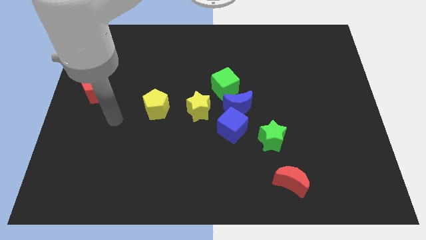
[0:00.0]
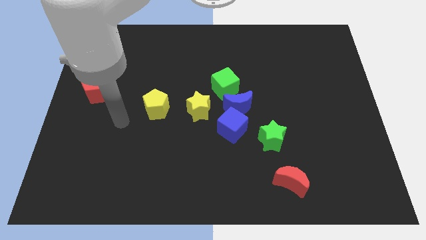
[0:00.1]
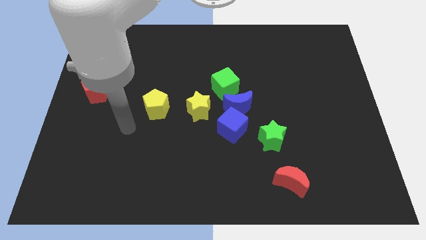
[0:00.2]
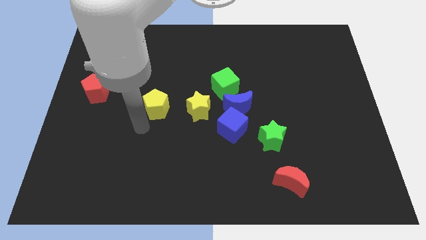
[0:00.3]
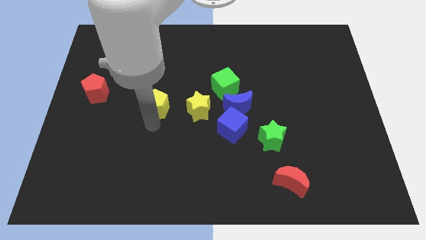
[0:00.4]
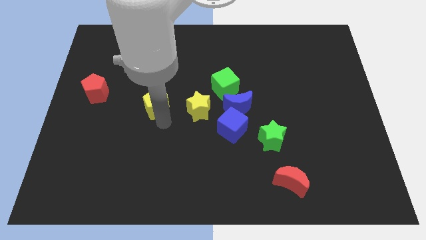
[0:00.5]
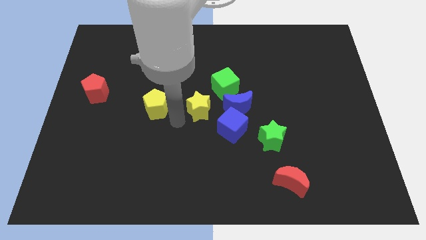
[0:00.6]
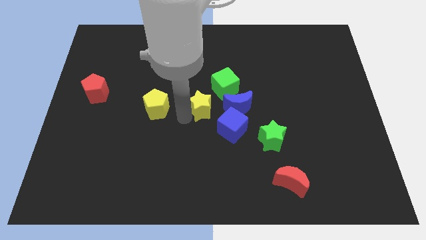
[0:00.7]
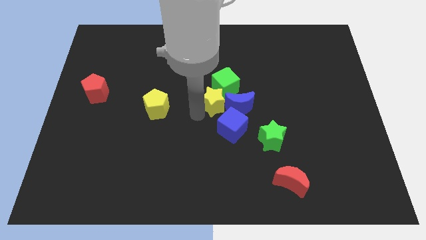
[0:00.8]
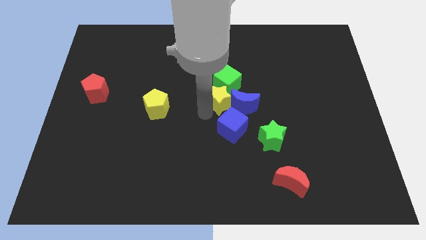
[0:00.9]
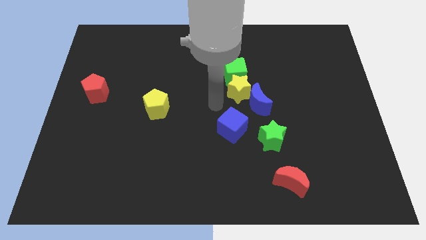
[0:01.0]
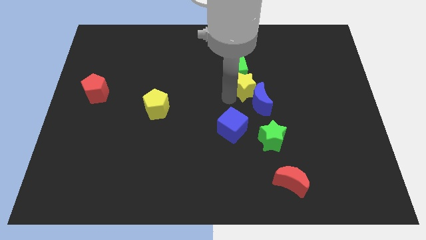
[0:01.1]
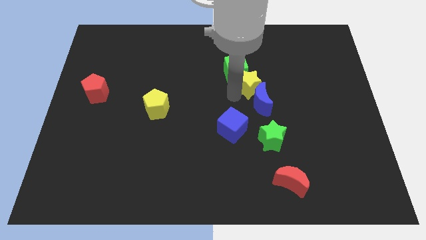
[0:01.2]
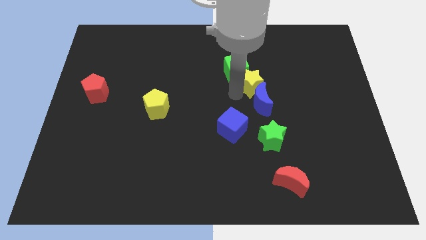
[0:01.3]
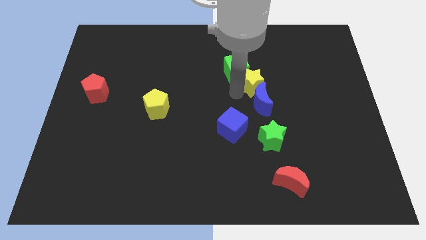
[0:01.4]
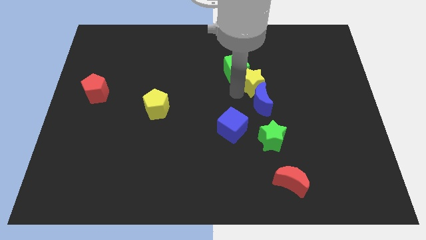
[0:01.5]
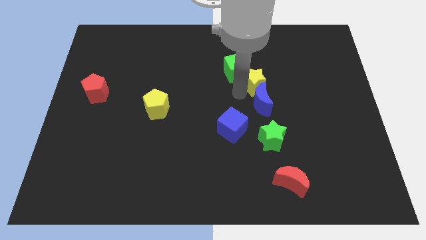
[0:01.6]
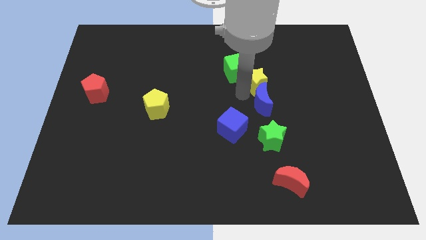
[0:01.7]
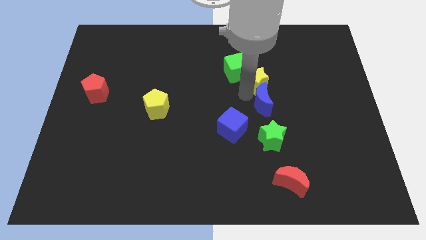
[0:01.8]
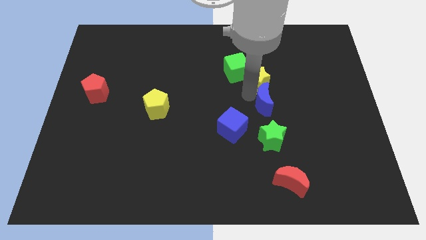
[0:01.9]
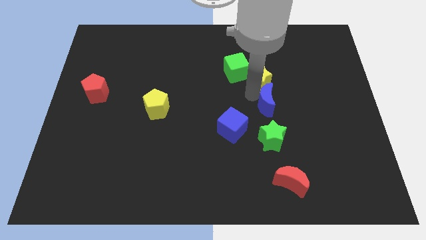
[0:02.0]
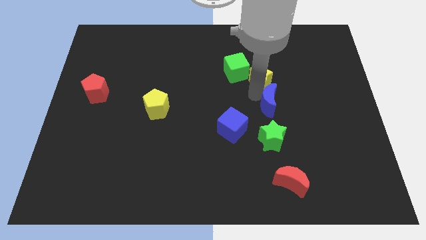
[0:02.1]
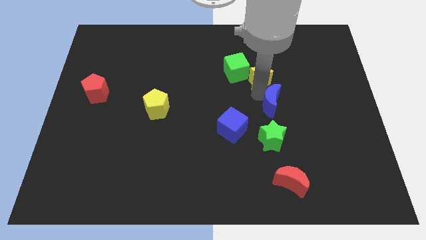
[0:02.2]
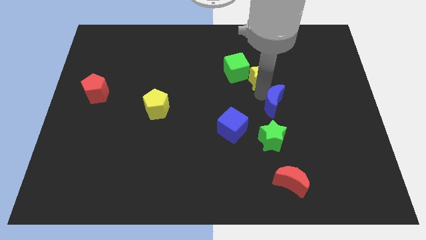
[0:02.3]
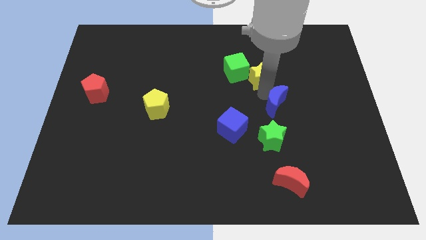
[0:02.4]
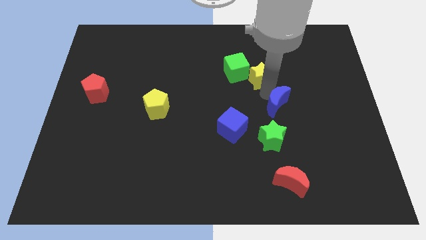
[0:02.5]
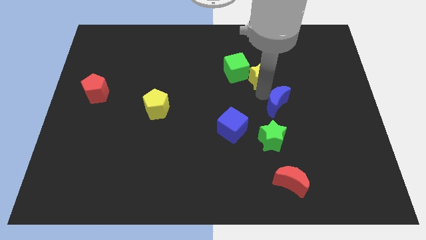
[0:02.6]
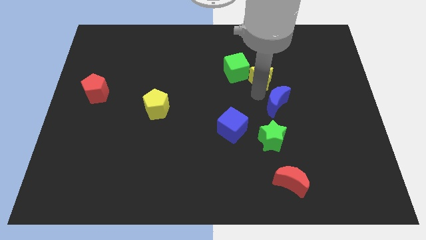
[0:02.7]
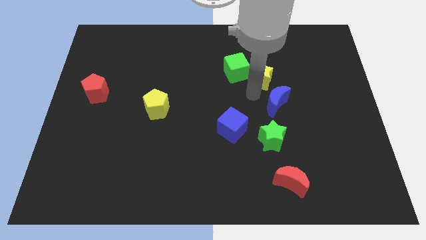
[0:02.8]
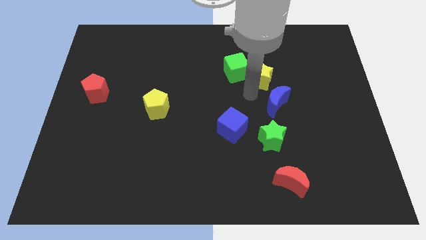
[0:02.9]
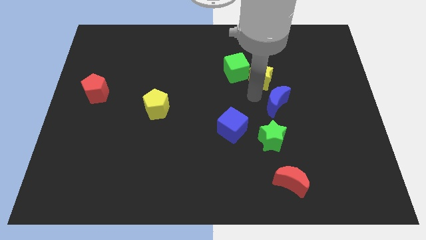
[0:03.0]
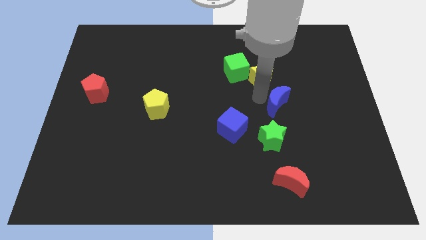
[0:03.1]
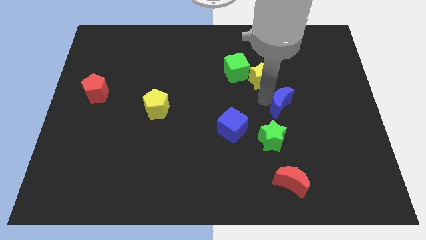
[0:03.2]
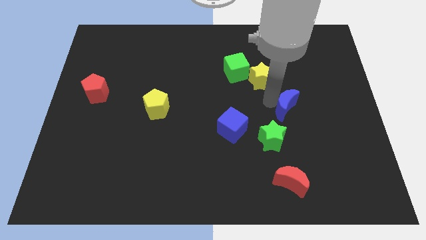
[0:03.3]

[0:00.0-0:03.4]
separate the blue moon from the group

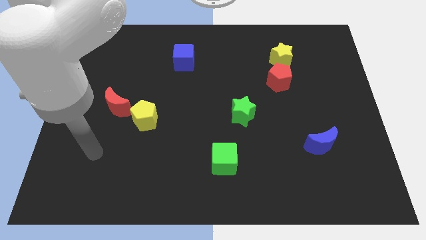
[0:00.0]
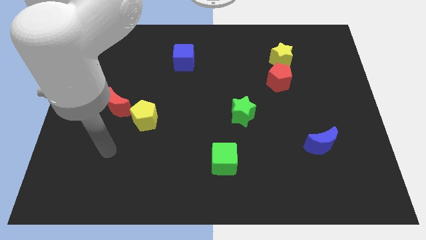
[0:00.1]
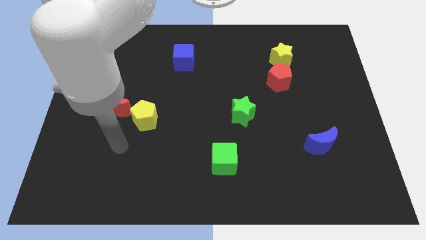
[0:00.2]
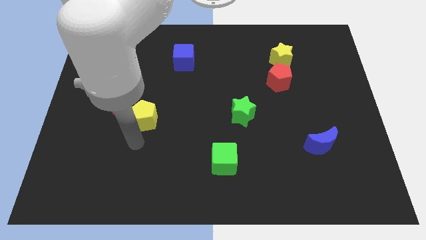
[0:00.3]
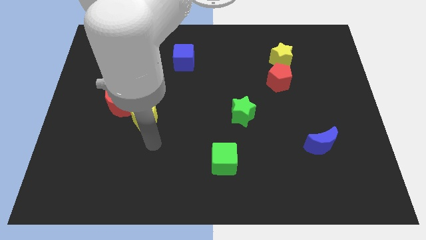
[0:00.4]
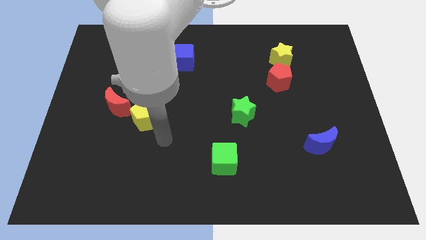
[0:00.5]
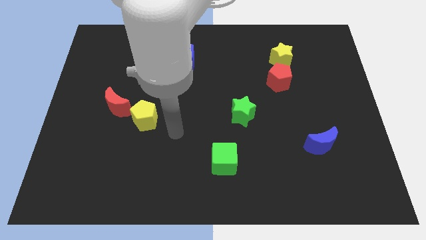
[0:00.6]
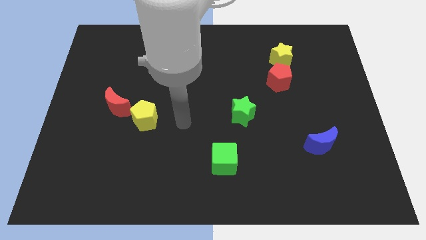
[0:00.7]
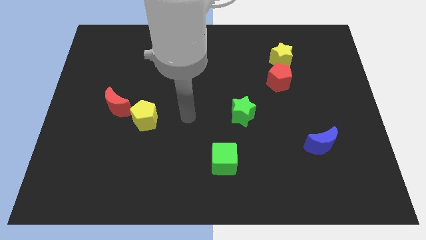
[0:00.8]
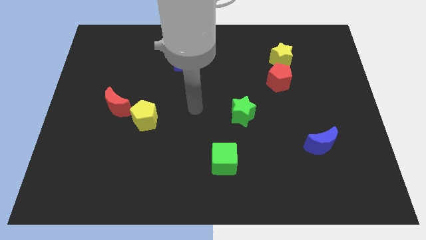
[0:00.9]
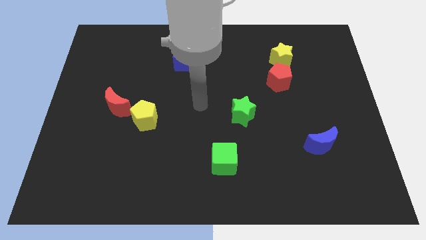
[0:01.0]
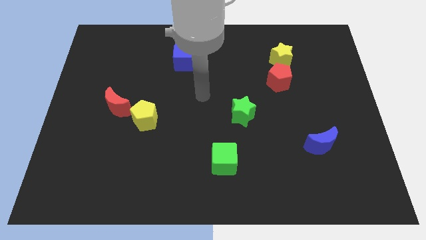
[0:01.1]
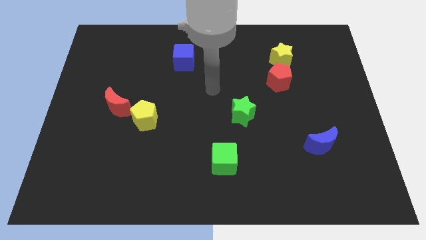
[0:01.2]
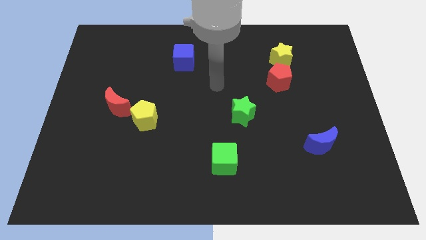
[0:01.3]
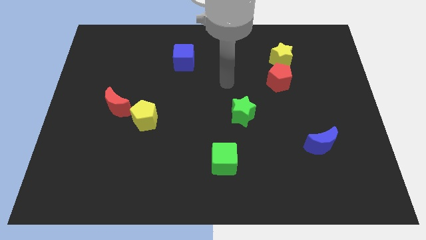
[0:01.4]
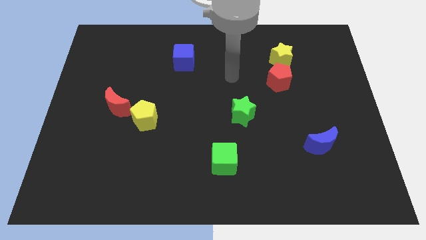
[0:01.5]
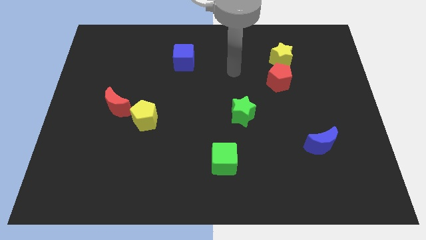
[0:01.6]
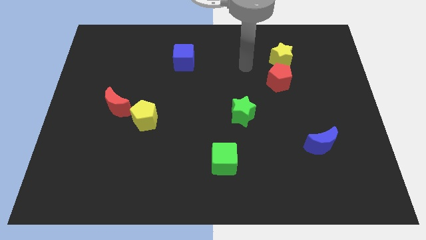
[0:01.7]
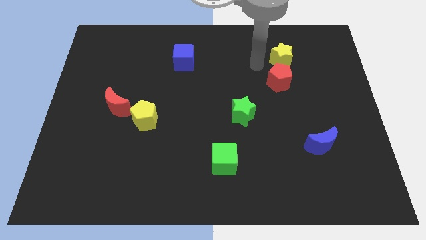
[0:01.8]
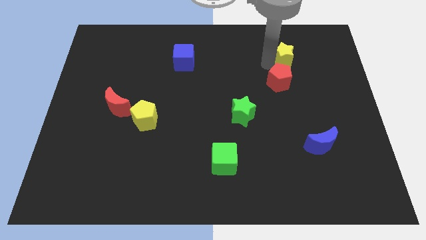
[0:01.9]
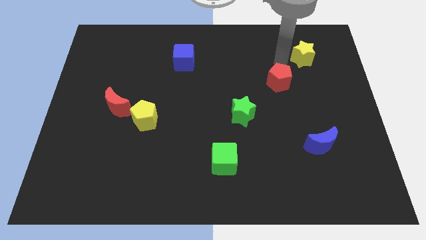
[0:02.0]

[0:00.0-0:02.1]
move the red pentagon away from the yellow star

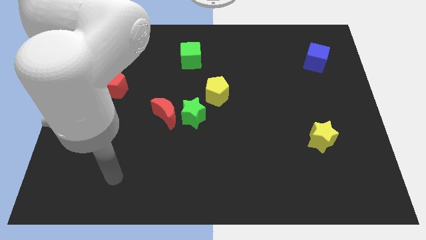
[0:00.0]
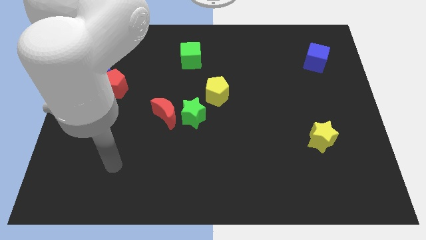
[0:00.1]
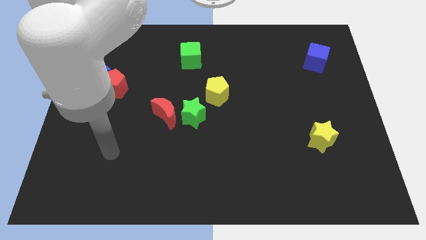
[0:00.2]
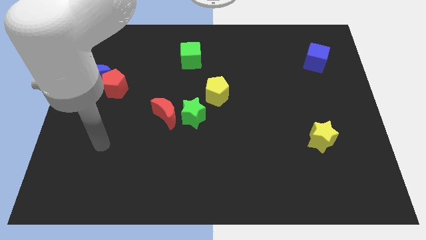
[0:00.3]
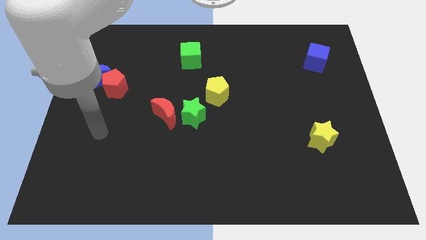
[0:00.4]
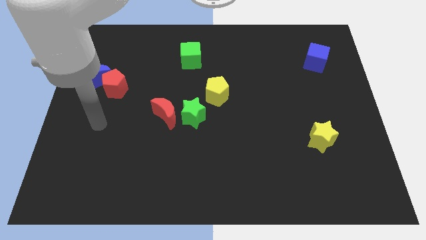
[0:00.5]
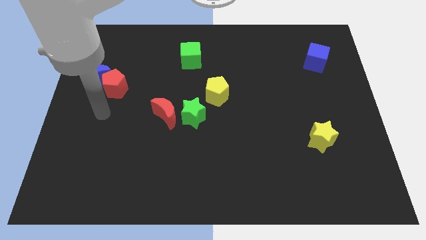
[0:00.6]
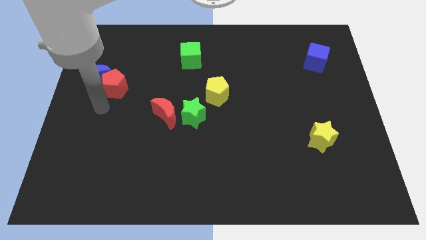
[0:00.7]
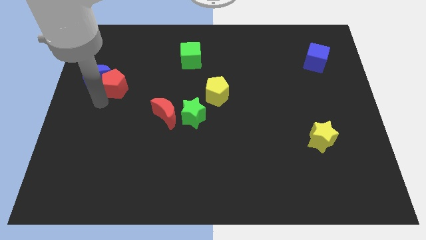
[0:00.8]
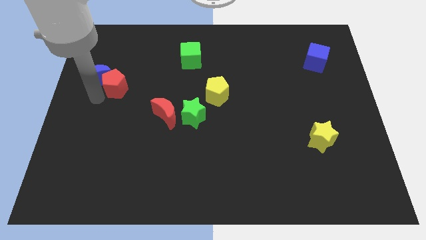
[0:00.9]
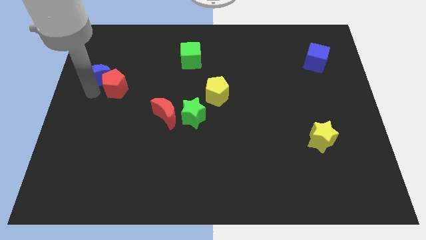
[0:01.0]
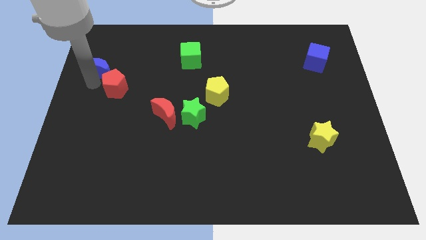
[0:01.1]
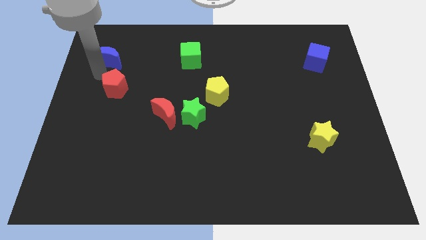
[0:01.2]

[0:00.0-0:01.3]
separate the red pentagon from the blue moon

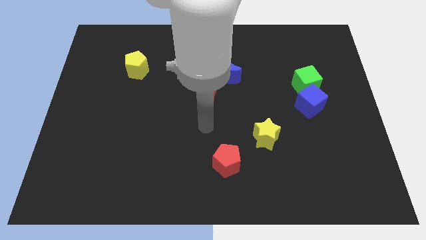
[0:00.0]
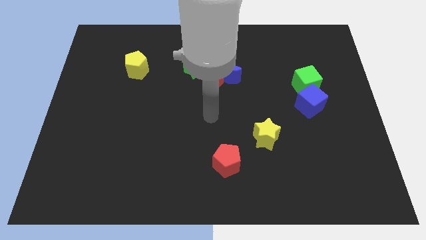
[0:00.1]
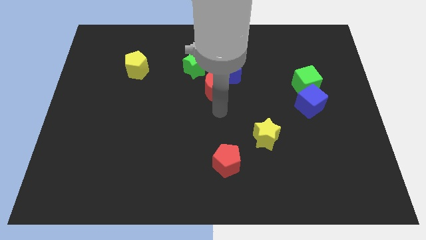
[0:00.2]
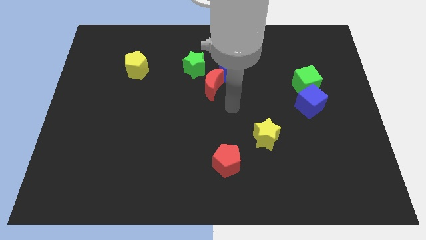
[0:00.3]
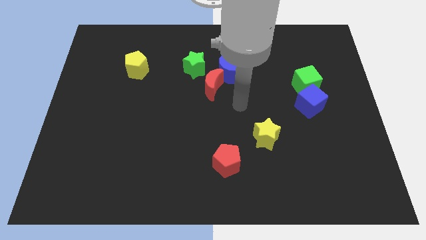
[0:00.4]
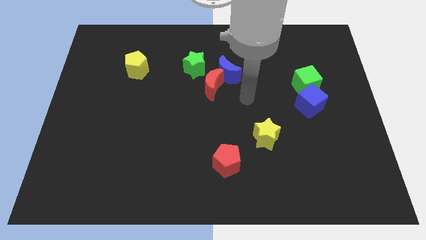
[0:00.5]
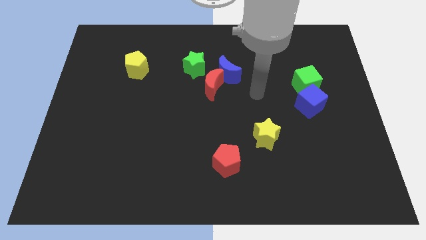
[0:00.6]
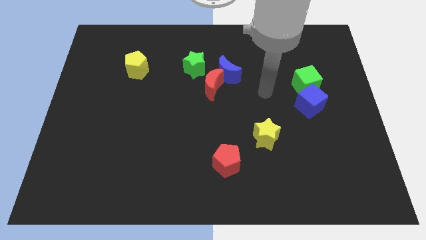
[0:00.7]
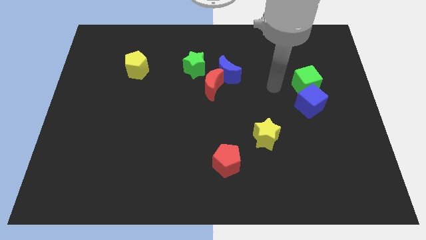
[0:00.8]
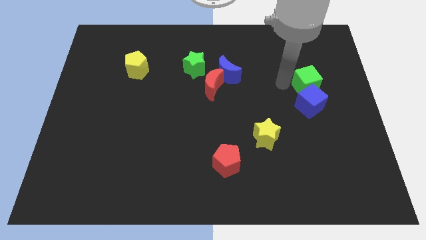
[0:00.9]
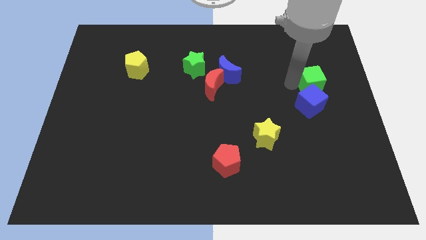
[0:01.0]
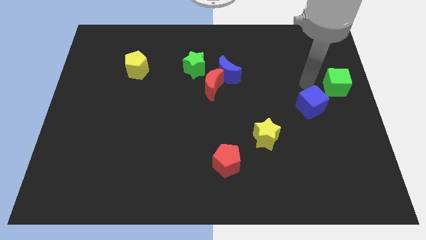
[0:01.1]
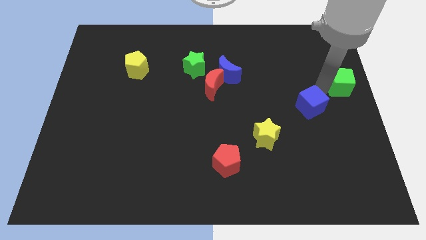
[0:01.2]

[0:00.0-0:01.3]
pull the blue cube apart from the green cube

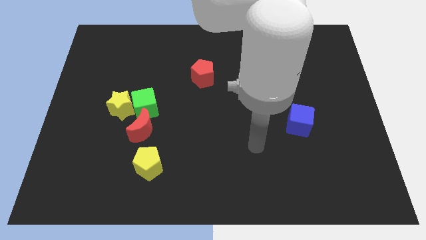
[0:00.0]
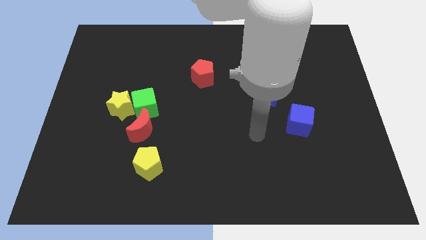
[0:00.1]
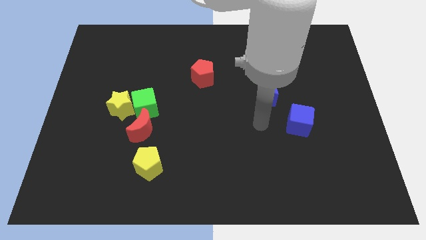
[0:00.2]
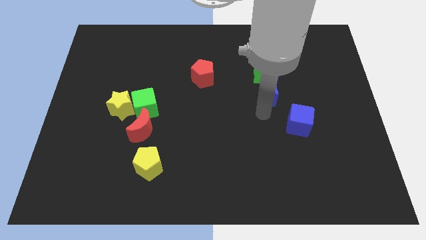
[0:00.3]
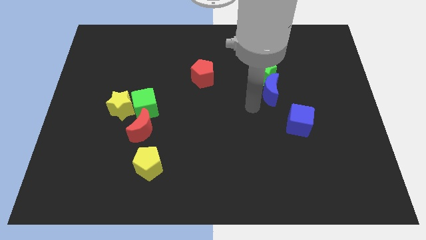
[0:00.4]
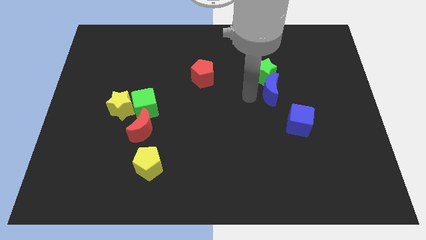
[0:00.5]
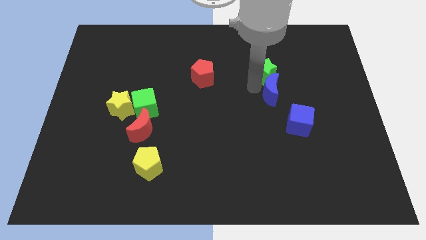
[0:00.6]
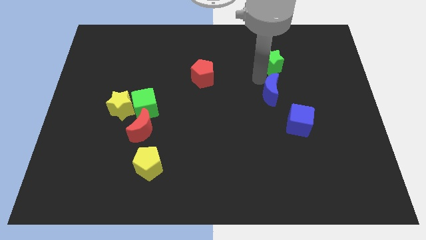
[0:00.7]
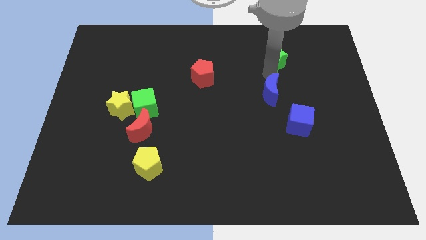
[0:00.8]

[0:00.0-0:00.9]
separate the blue moon from the green star

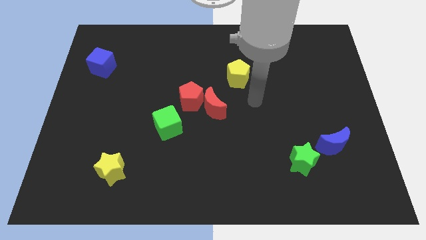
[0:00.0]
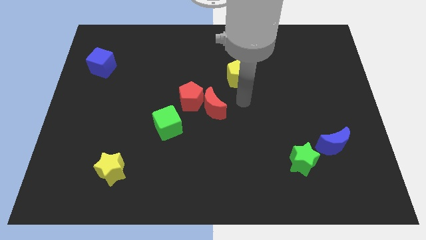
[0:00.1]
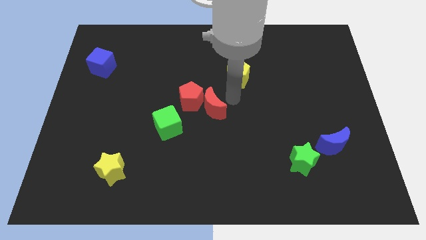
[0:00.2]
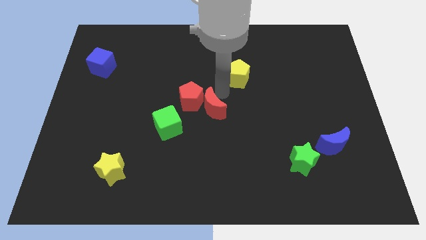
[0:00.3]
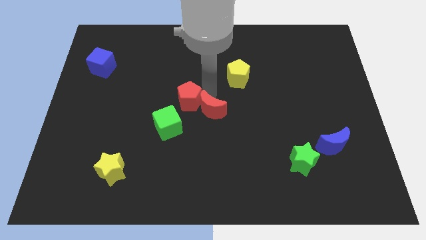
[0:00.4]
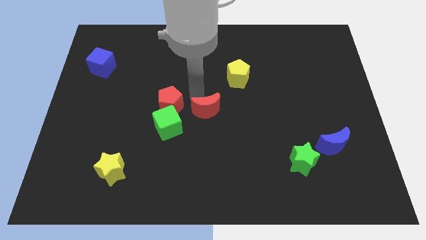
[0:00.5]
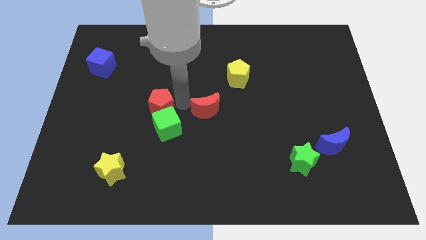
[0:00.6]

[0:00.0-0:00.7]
move the red moon away from the red pentagon
